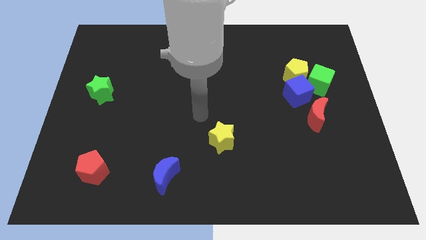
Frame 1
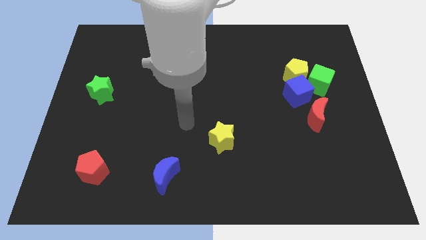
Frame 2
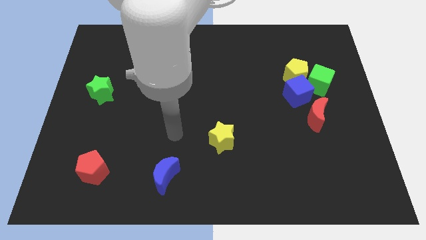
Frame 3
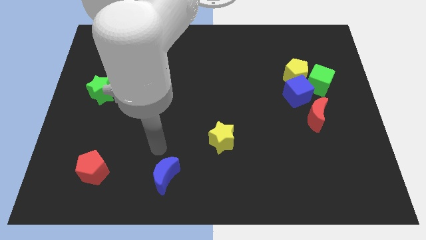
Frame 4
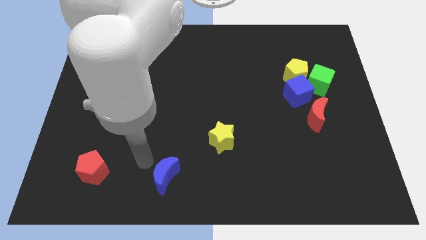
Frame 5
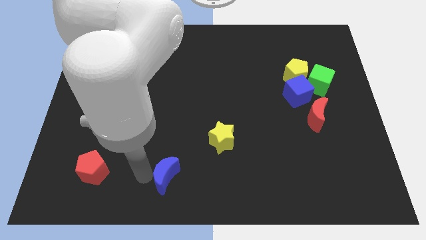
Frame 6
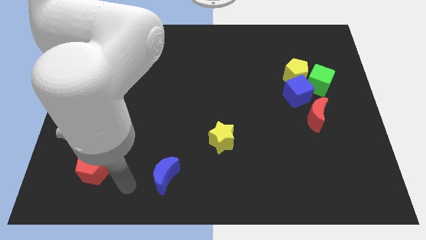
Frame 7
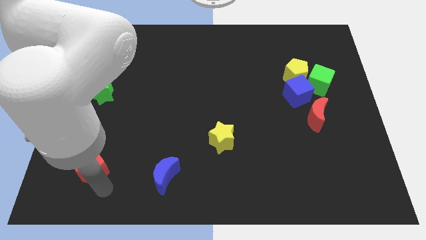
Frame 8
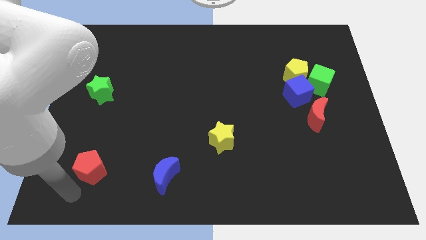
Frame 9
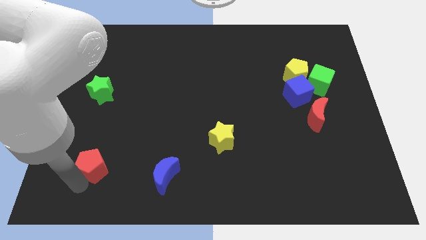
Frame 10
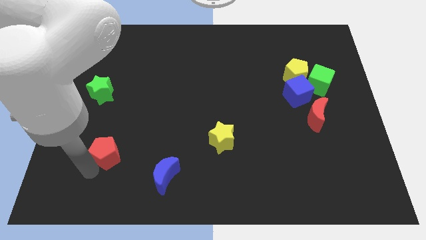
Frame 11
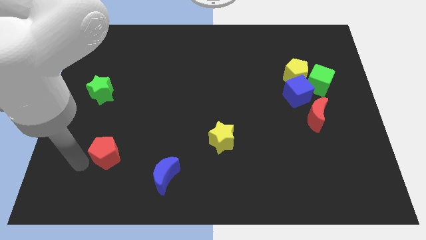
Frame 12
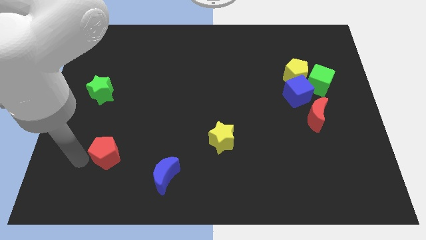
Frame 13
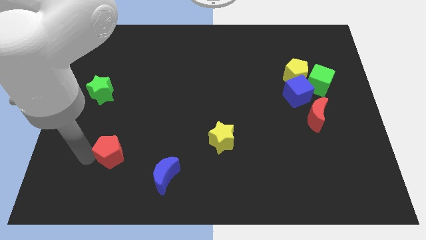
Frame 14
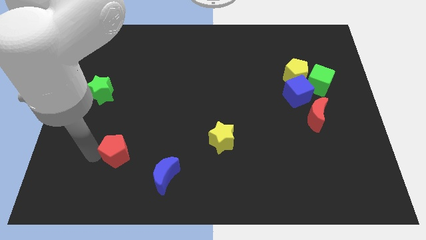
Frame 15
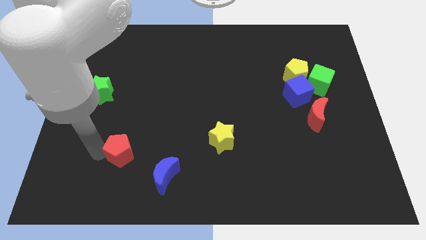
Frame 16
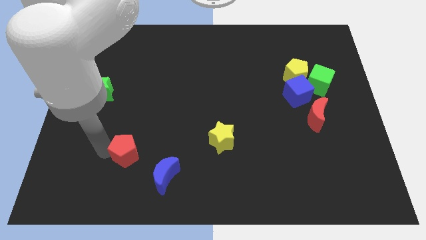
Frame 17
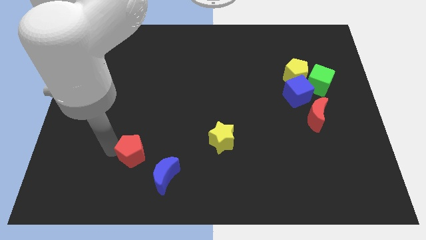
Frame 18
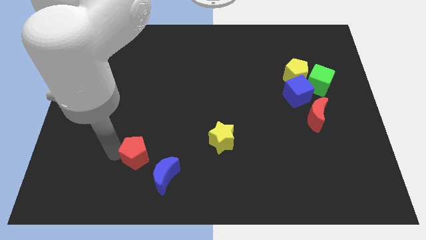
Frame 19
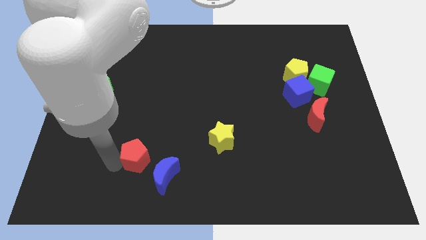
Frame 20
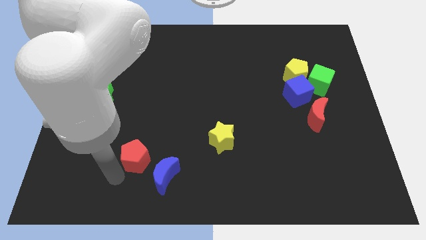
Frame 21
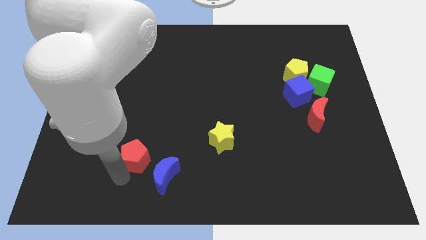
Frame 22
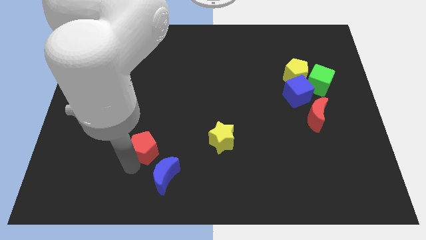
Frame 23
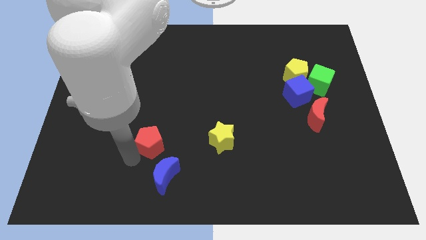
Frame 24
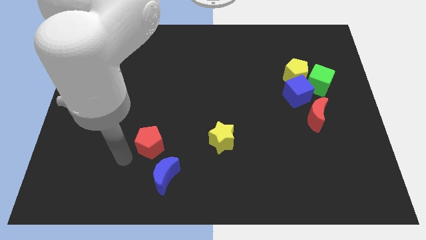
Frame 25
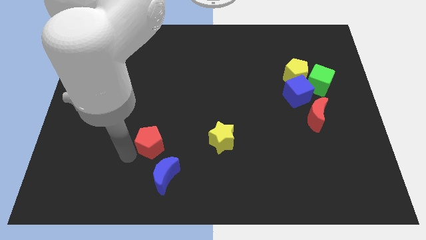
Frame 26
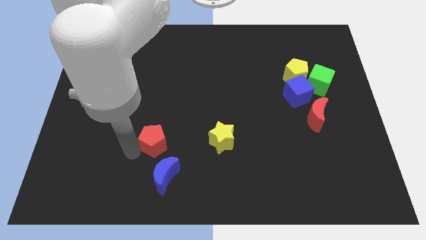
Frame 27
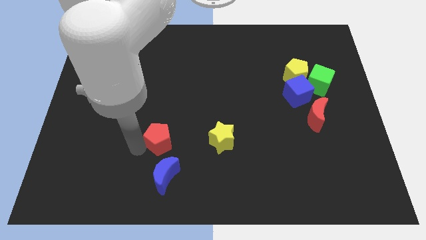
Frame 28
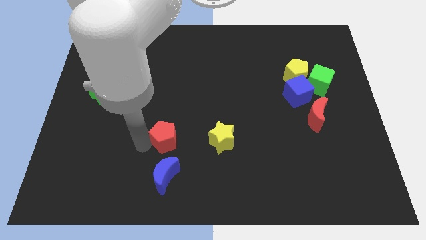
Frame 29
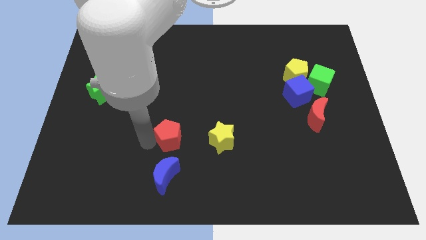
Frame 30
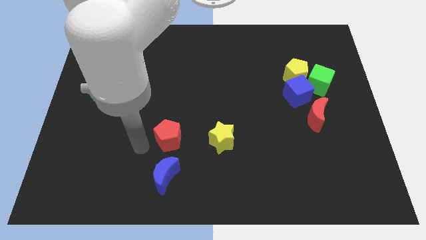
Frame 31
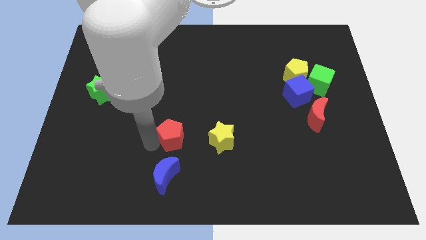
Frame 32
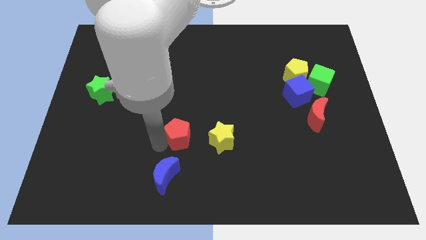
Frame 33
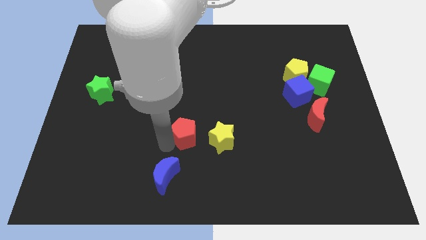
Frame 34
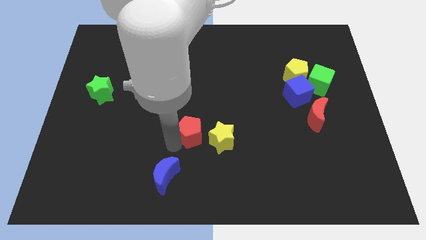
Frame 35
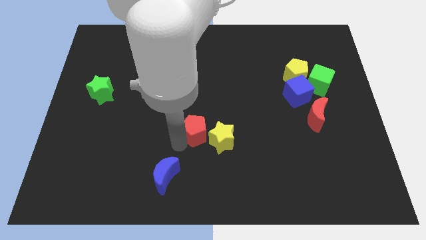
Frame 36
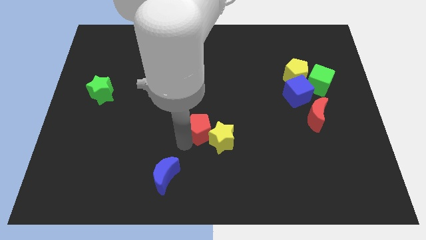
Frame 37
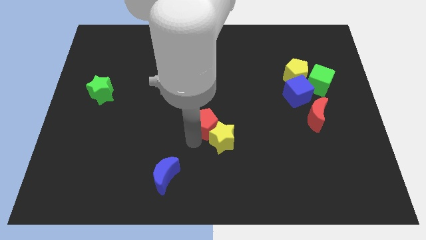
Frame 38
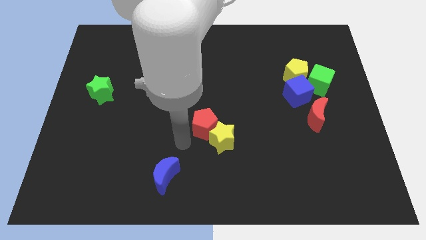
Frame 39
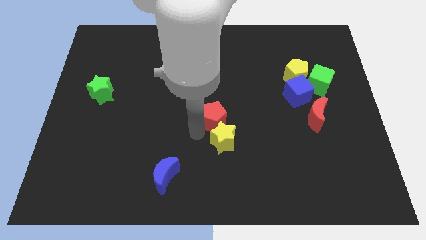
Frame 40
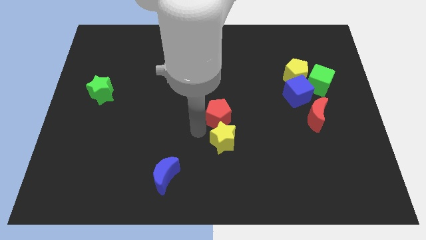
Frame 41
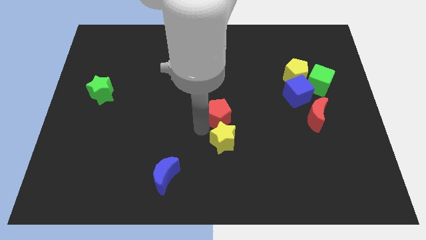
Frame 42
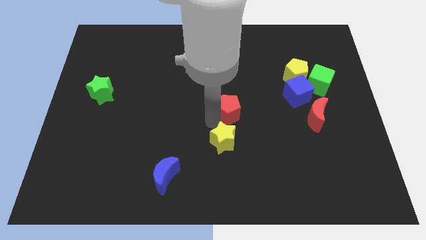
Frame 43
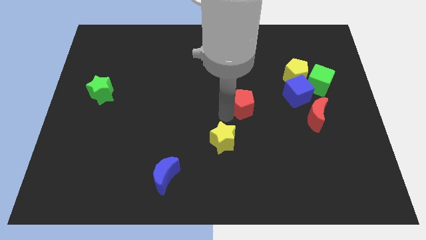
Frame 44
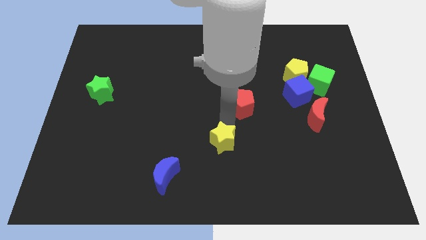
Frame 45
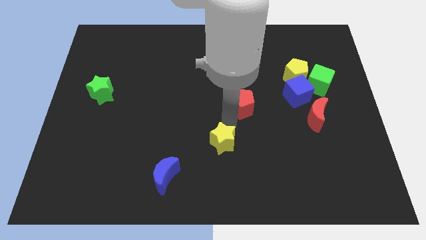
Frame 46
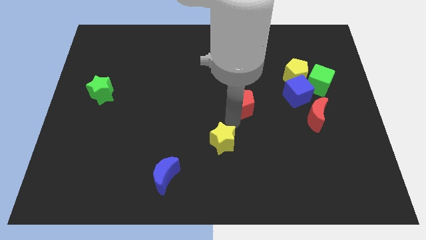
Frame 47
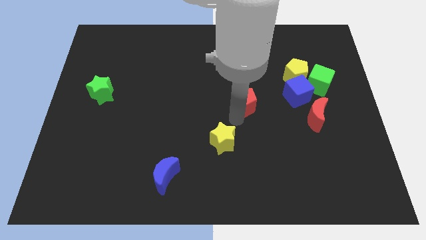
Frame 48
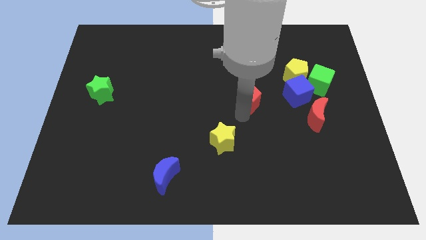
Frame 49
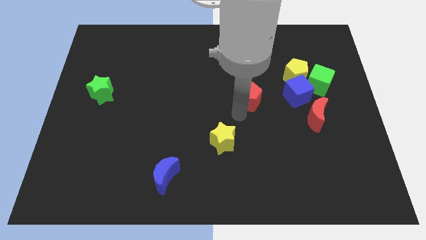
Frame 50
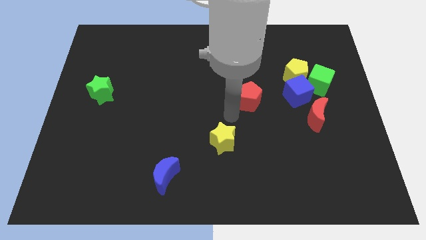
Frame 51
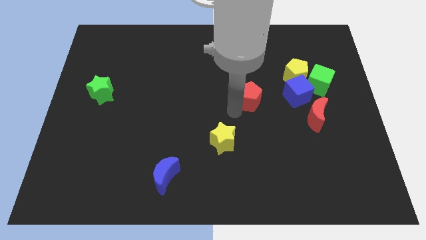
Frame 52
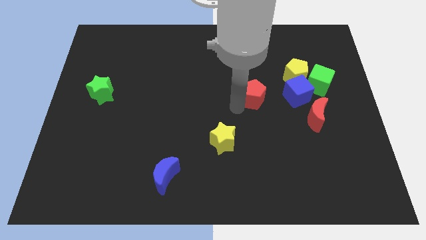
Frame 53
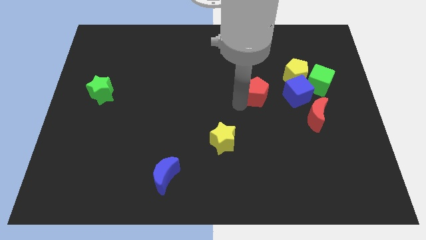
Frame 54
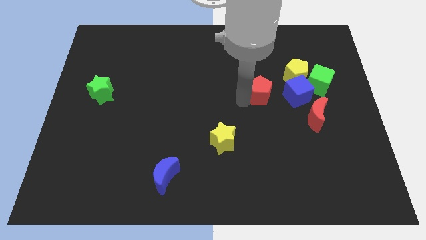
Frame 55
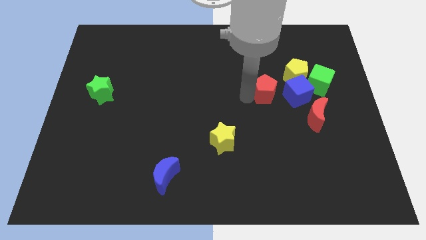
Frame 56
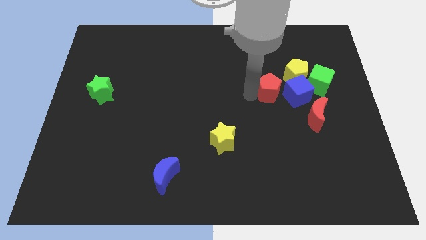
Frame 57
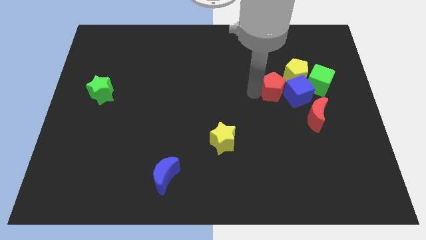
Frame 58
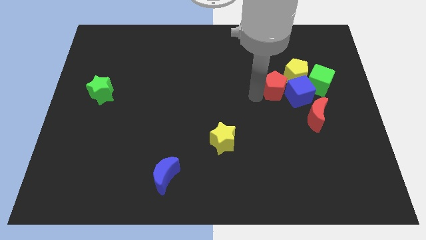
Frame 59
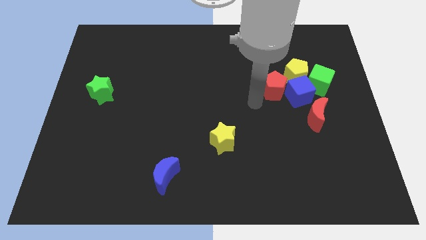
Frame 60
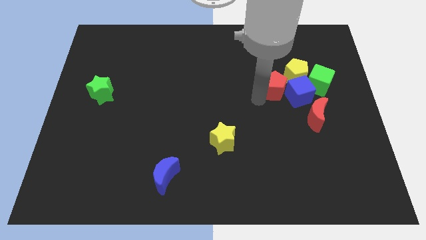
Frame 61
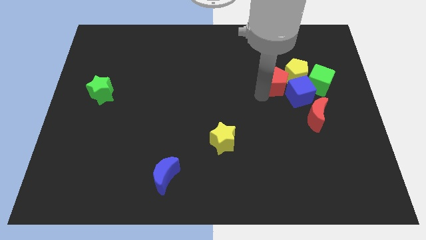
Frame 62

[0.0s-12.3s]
move the red pentagon towards the yellow pentagon

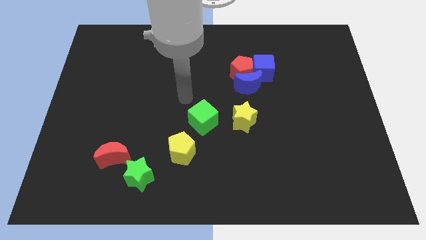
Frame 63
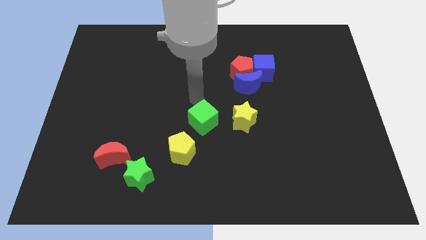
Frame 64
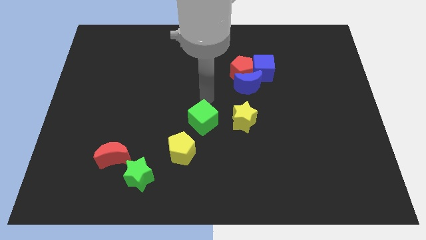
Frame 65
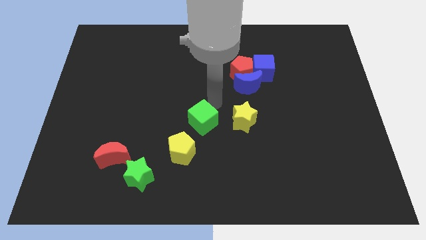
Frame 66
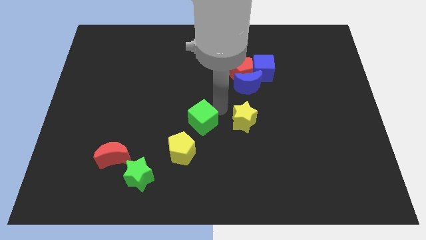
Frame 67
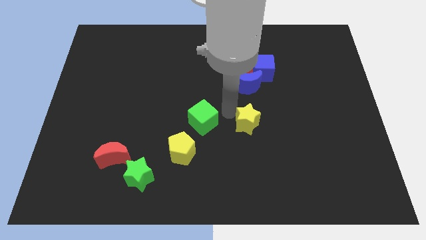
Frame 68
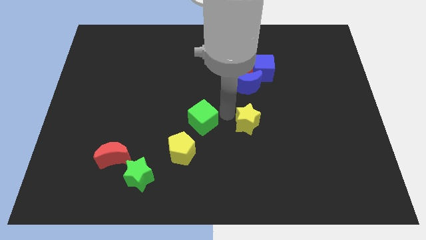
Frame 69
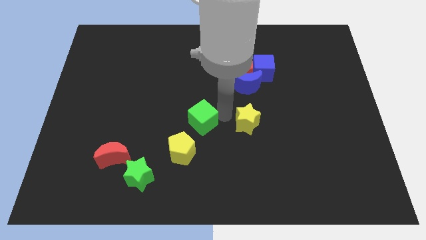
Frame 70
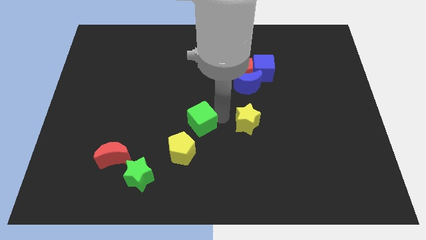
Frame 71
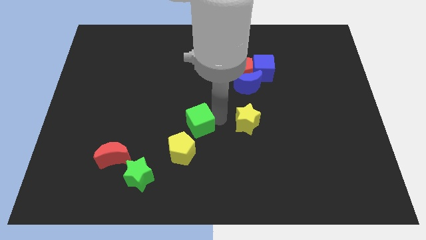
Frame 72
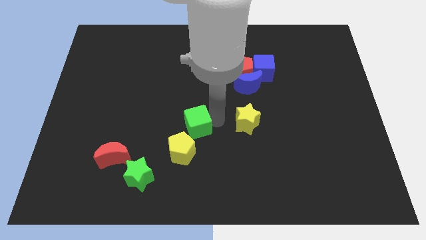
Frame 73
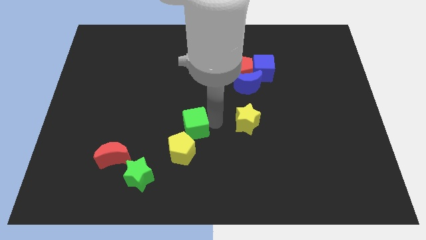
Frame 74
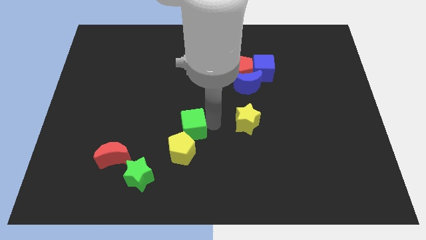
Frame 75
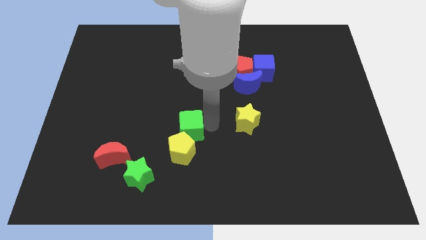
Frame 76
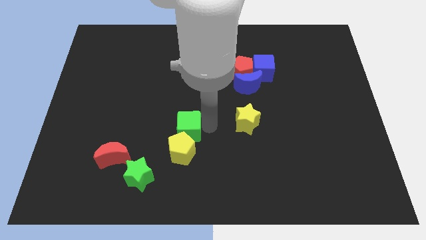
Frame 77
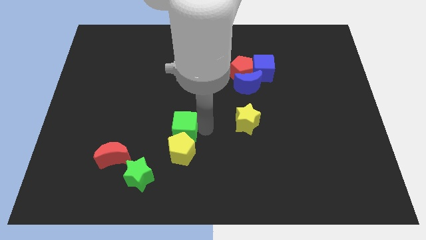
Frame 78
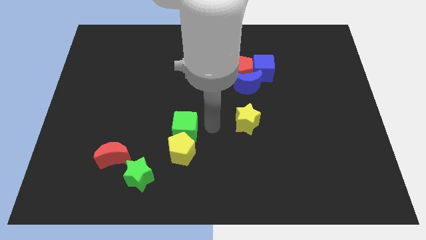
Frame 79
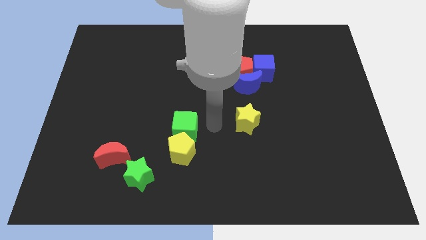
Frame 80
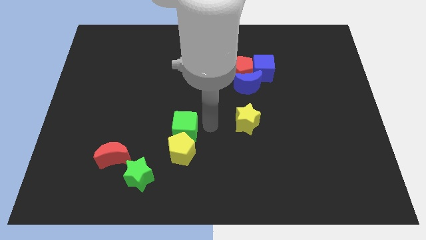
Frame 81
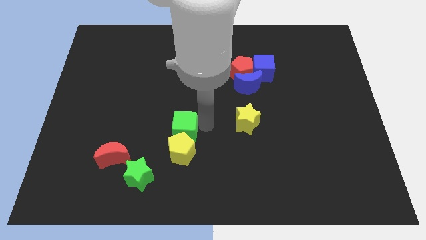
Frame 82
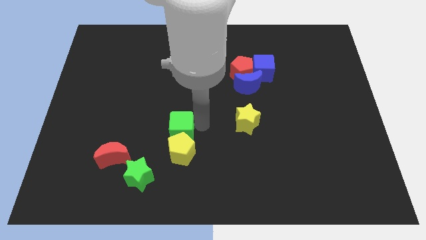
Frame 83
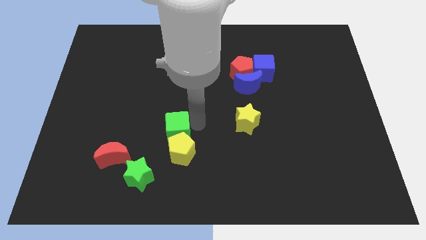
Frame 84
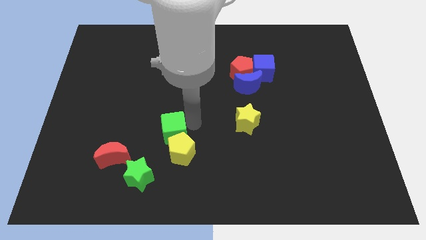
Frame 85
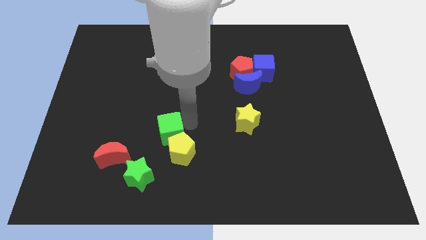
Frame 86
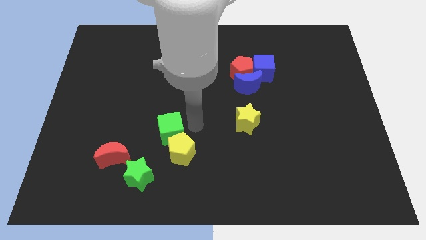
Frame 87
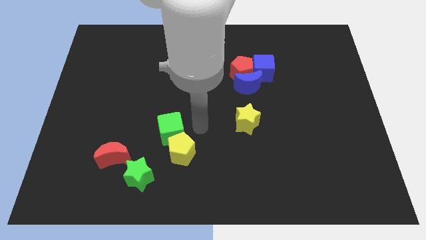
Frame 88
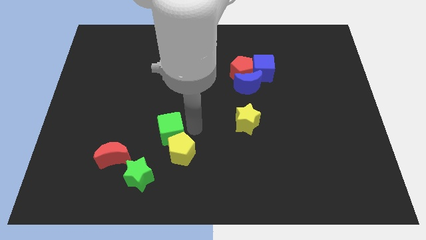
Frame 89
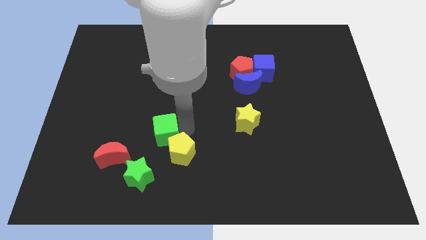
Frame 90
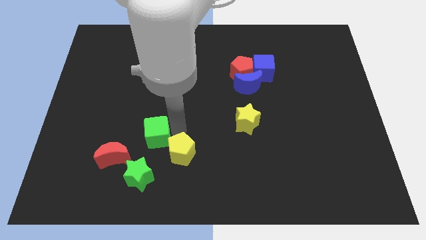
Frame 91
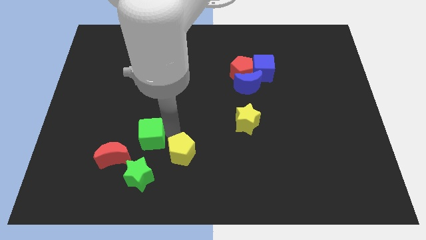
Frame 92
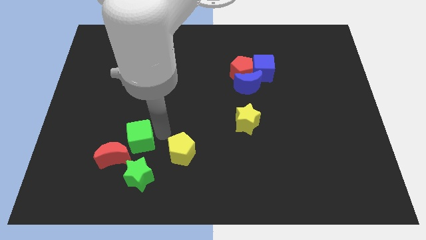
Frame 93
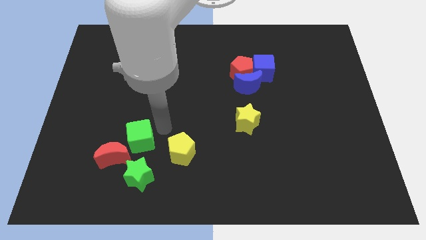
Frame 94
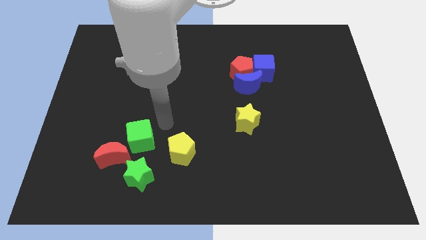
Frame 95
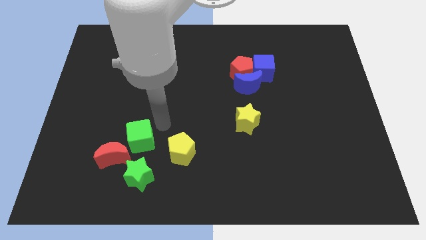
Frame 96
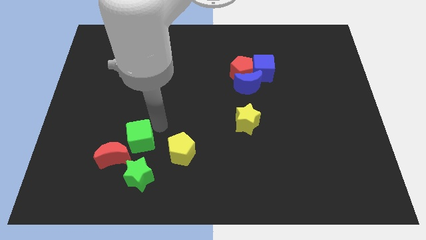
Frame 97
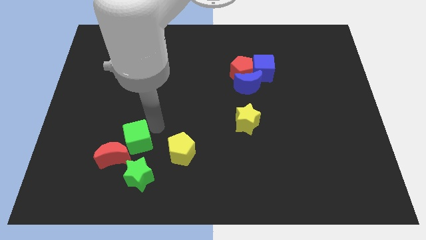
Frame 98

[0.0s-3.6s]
push the green cube towards the red moon
